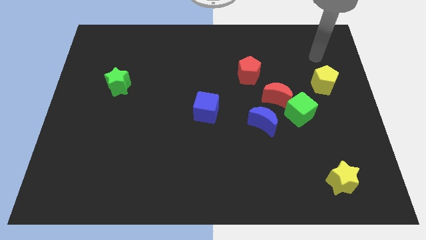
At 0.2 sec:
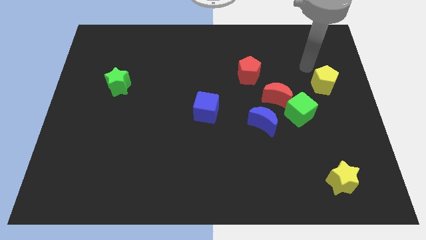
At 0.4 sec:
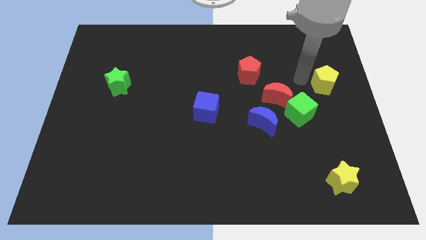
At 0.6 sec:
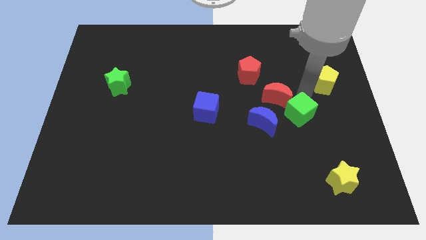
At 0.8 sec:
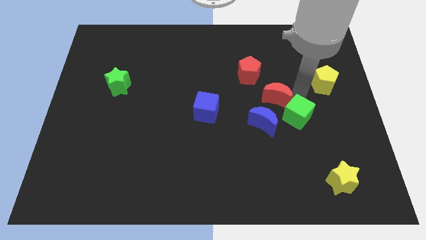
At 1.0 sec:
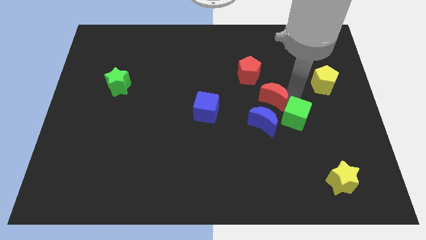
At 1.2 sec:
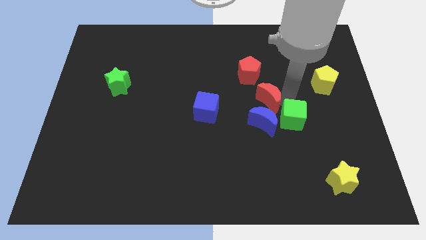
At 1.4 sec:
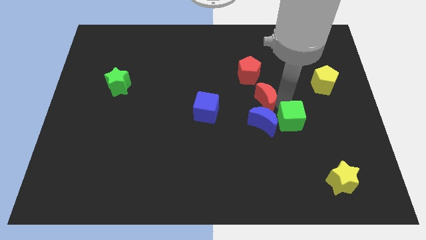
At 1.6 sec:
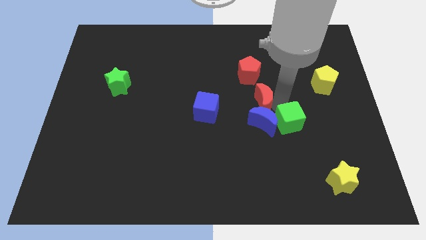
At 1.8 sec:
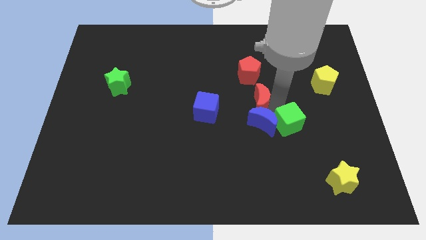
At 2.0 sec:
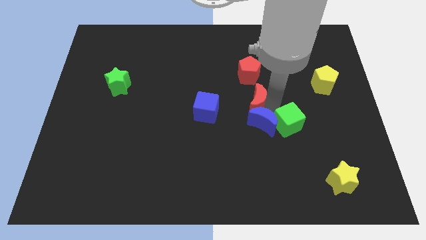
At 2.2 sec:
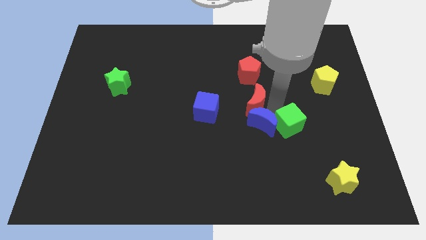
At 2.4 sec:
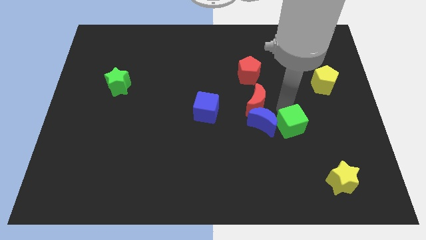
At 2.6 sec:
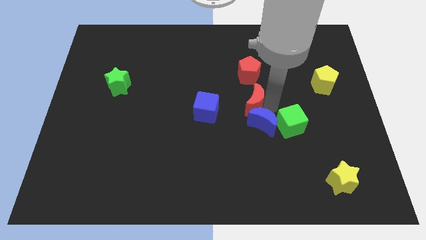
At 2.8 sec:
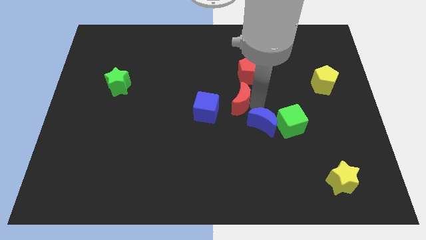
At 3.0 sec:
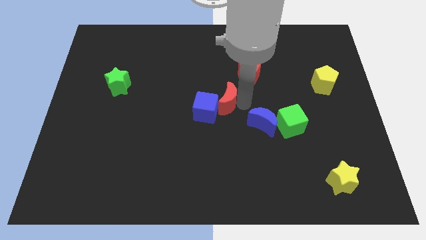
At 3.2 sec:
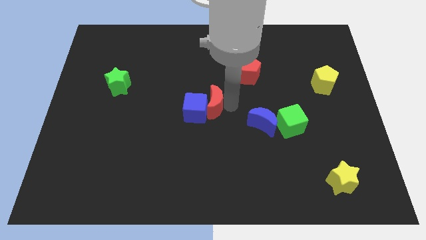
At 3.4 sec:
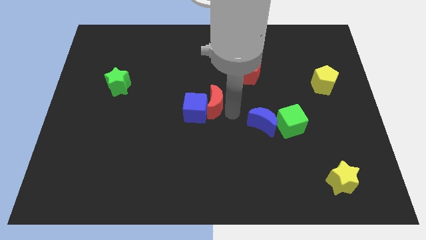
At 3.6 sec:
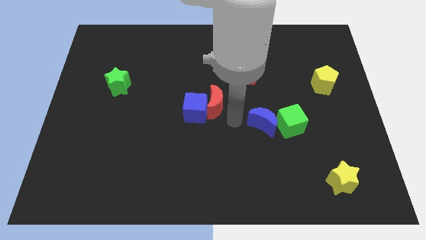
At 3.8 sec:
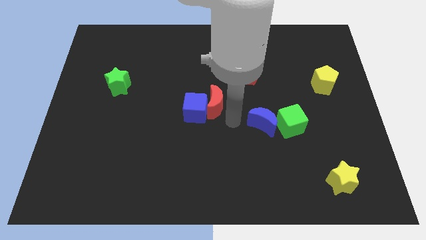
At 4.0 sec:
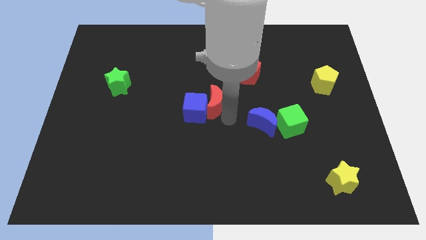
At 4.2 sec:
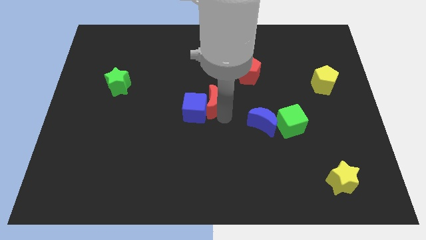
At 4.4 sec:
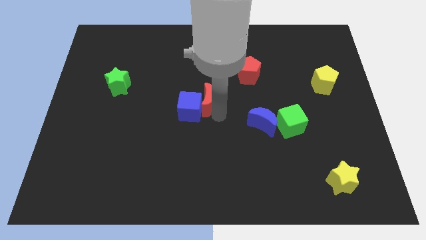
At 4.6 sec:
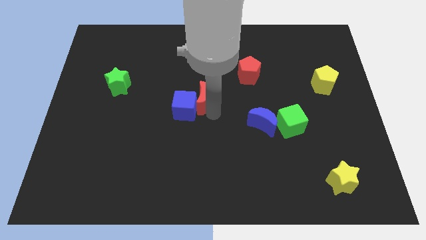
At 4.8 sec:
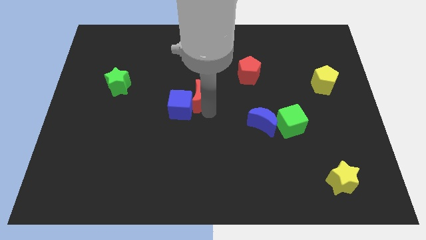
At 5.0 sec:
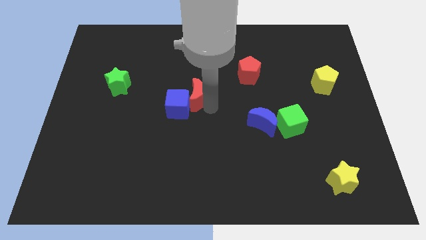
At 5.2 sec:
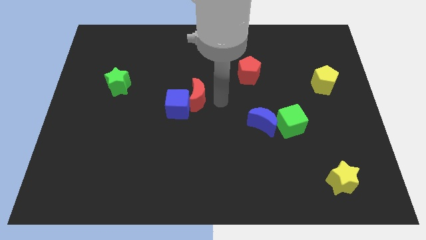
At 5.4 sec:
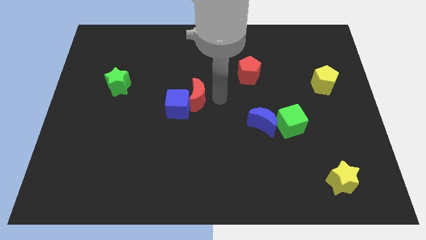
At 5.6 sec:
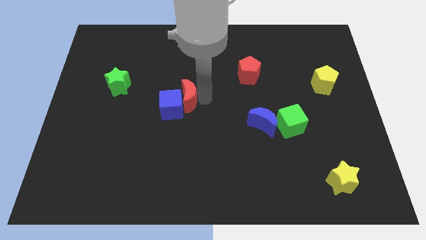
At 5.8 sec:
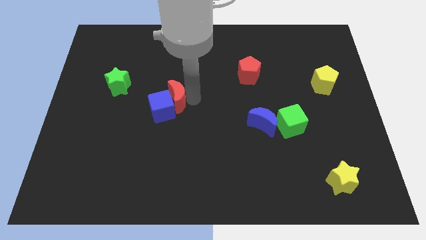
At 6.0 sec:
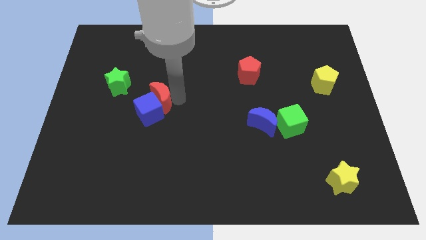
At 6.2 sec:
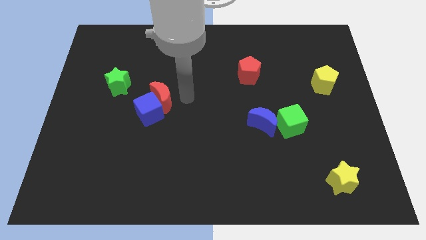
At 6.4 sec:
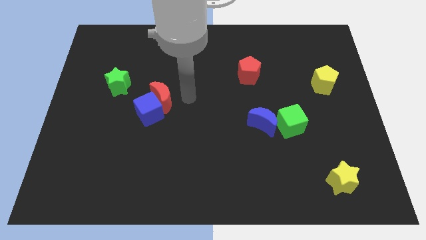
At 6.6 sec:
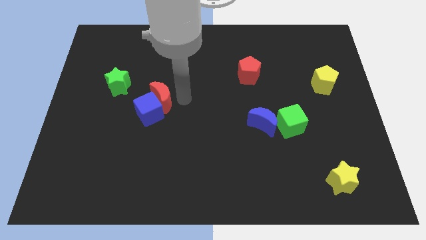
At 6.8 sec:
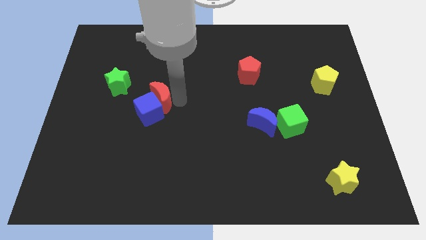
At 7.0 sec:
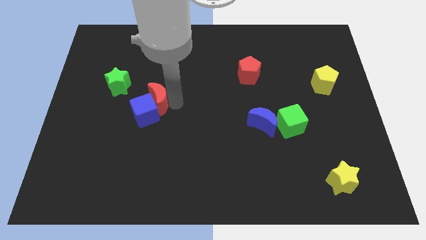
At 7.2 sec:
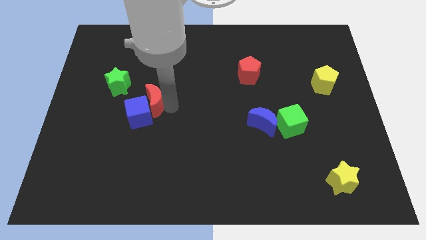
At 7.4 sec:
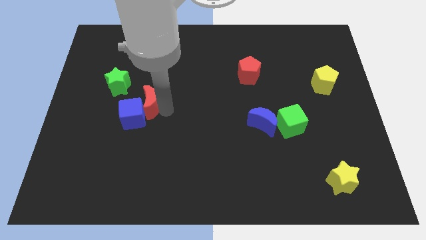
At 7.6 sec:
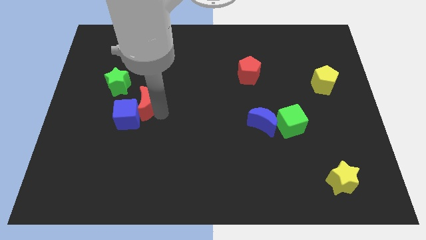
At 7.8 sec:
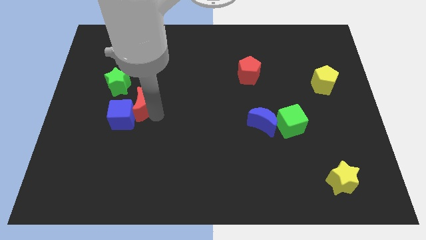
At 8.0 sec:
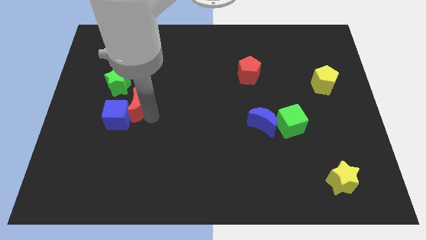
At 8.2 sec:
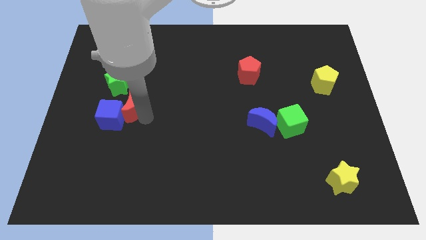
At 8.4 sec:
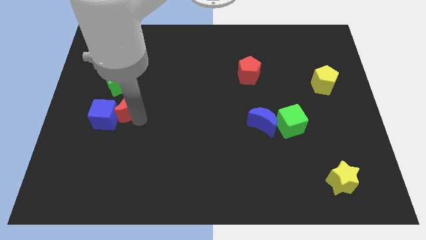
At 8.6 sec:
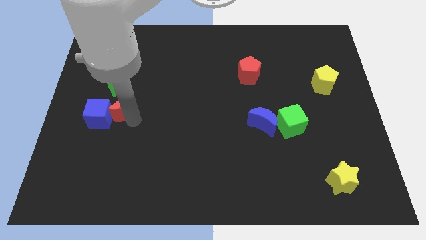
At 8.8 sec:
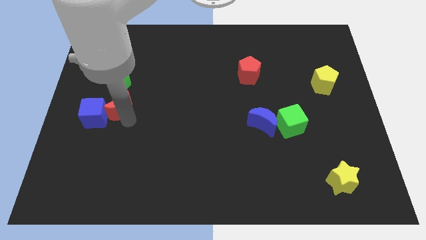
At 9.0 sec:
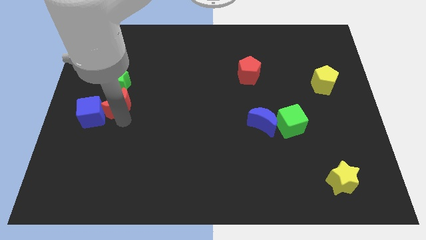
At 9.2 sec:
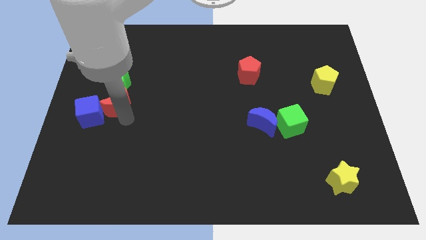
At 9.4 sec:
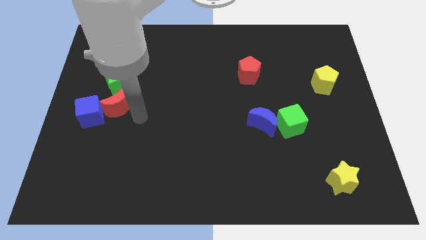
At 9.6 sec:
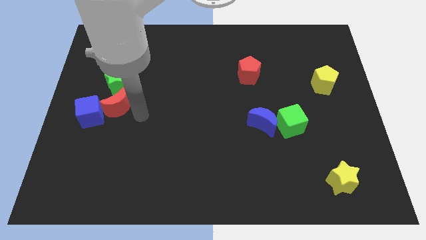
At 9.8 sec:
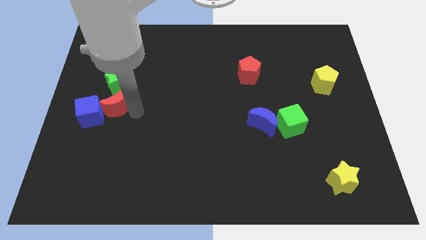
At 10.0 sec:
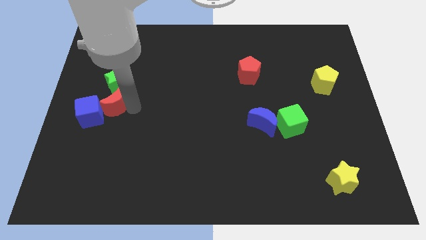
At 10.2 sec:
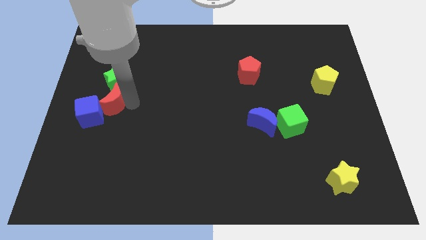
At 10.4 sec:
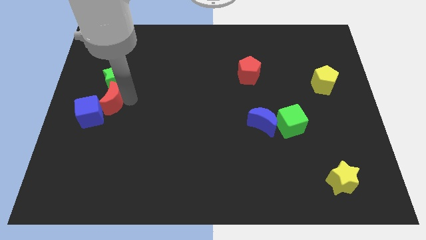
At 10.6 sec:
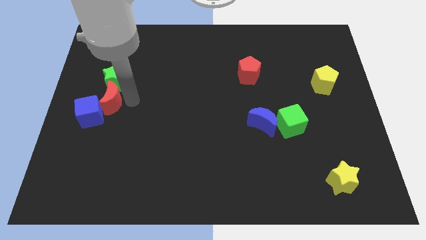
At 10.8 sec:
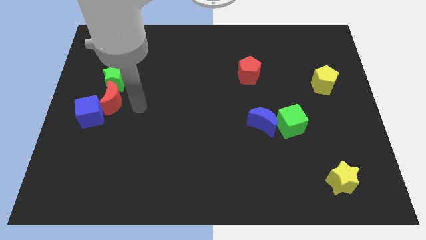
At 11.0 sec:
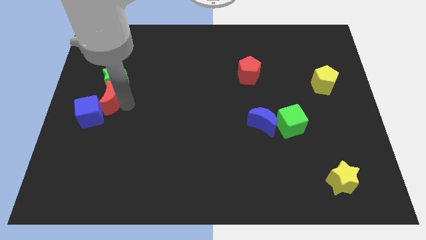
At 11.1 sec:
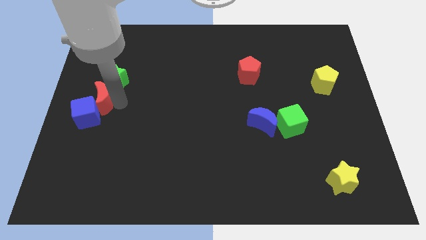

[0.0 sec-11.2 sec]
put the red moon to the center left
